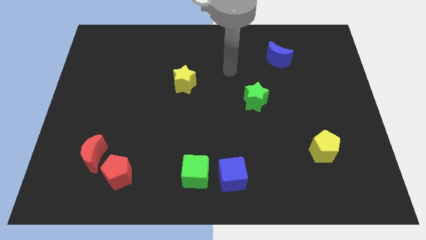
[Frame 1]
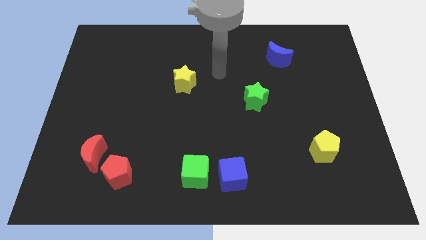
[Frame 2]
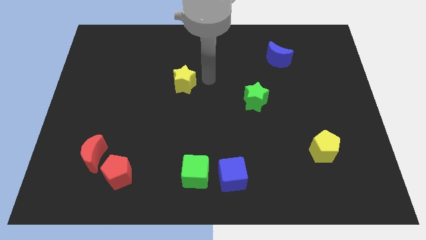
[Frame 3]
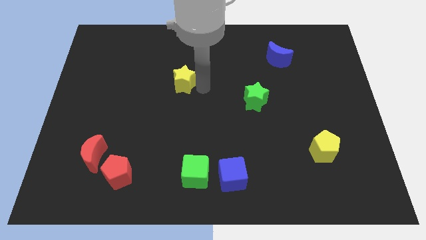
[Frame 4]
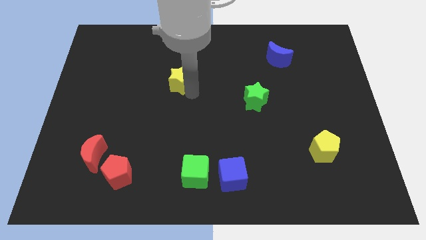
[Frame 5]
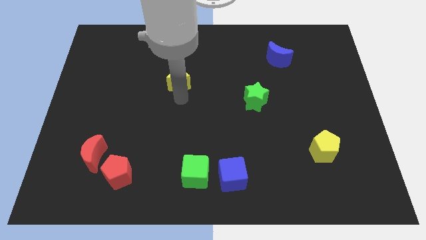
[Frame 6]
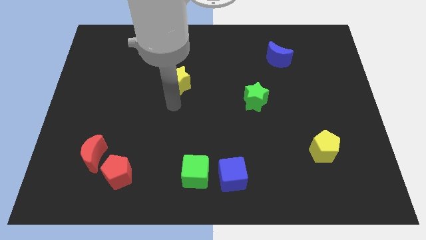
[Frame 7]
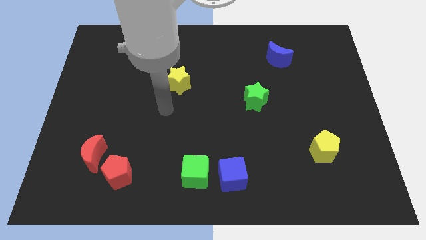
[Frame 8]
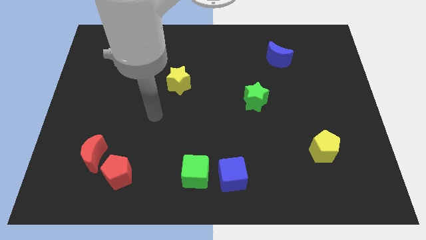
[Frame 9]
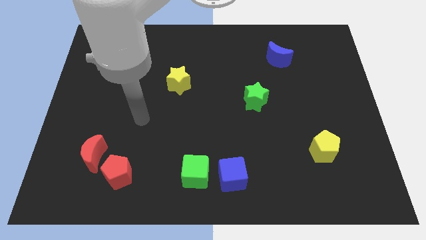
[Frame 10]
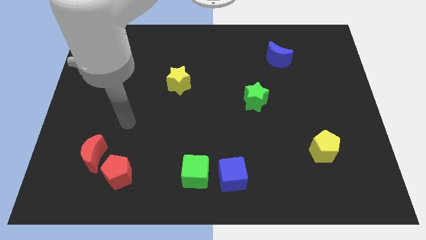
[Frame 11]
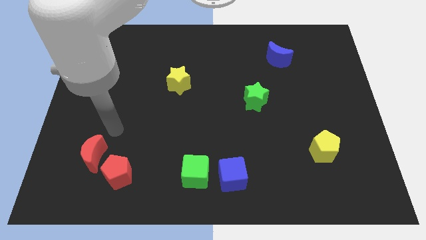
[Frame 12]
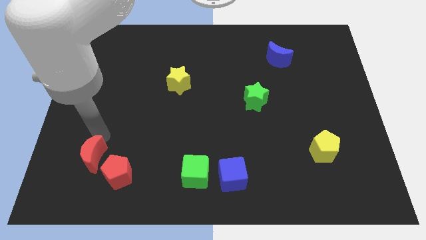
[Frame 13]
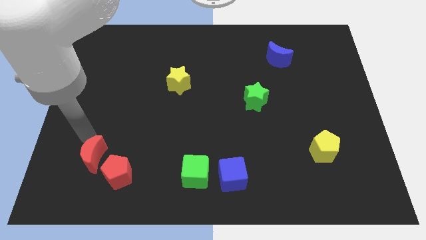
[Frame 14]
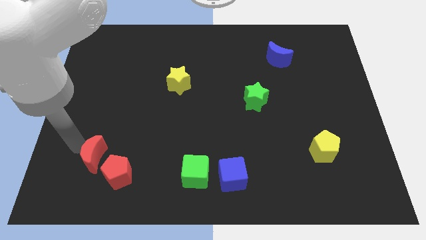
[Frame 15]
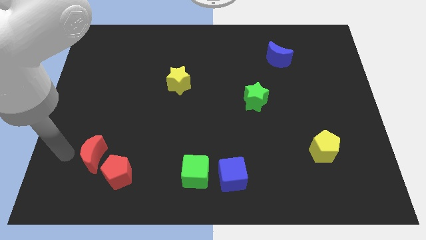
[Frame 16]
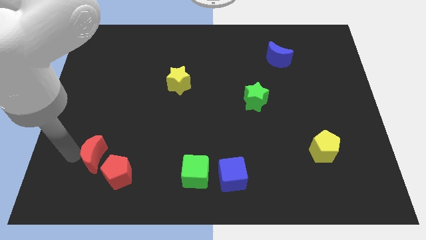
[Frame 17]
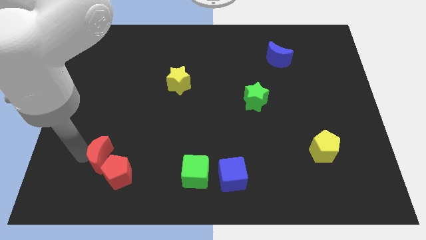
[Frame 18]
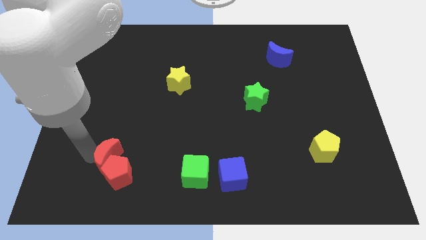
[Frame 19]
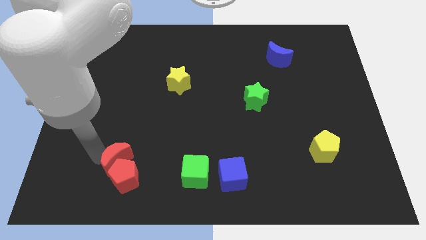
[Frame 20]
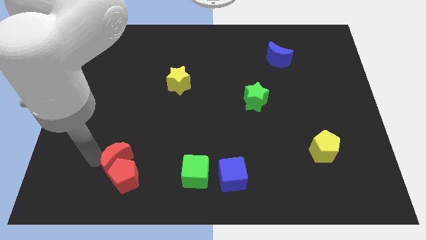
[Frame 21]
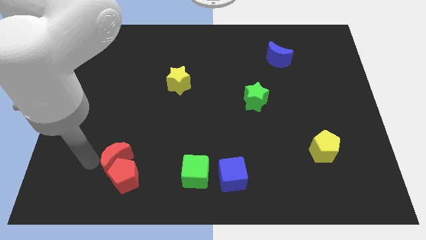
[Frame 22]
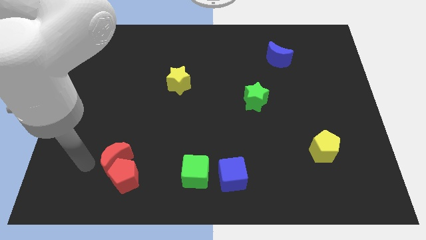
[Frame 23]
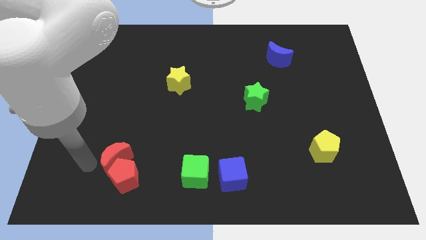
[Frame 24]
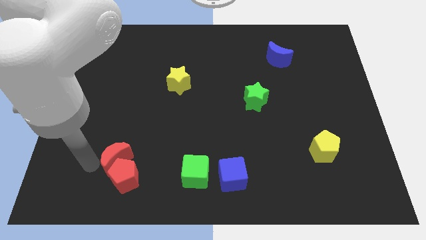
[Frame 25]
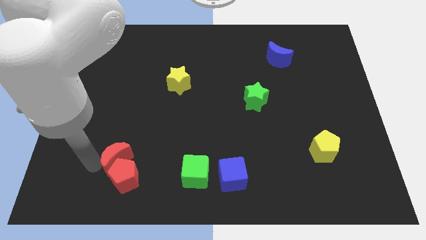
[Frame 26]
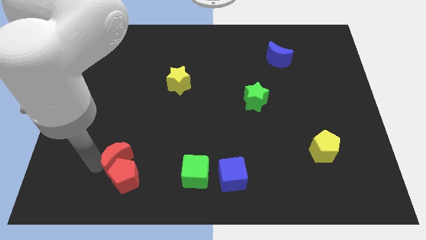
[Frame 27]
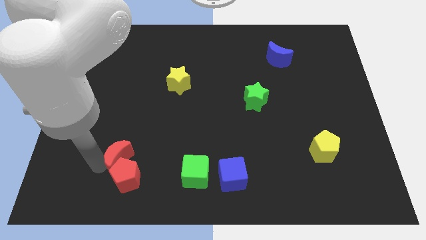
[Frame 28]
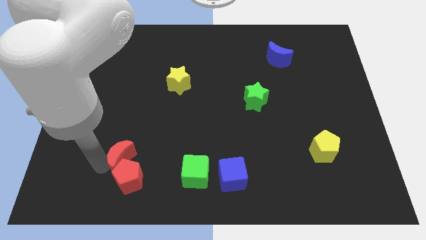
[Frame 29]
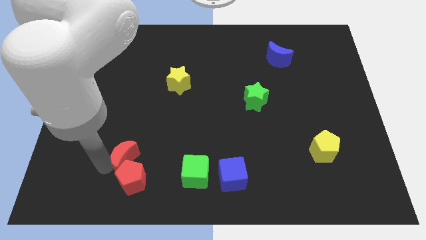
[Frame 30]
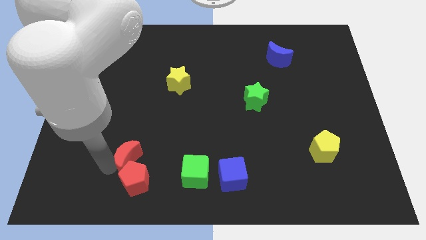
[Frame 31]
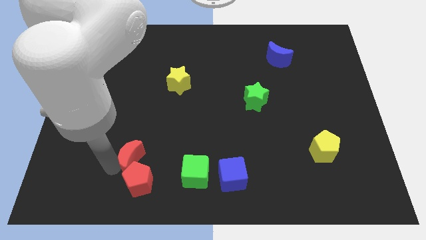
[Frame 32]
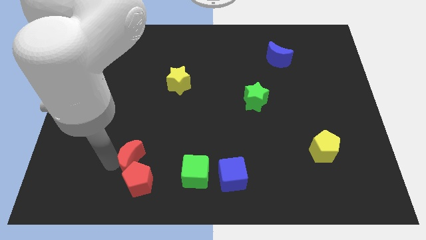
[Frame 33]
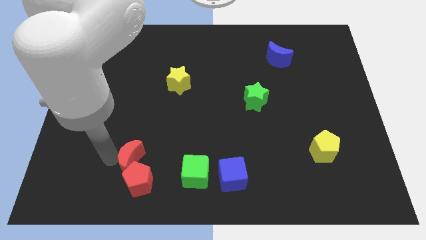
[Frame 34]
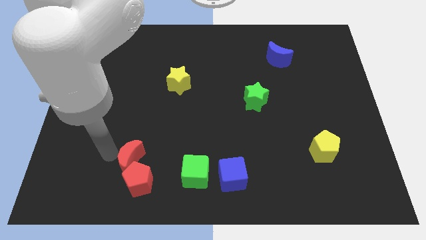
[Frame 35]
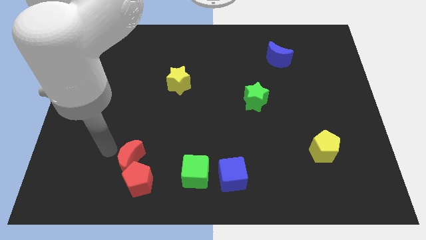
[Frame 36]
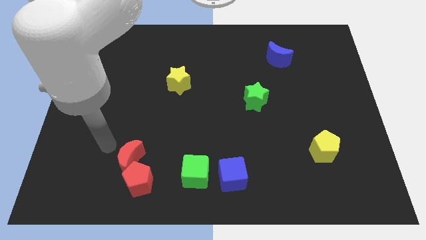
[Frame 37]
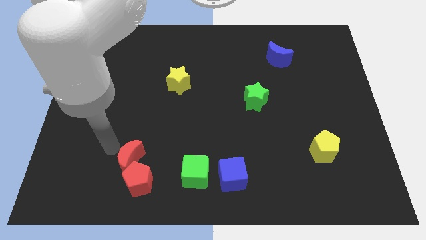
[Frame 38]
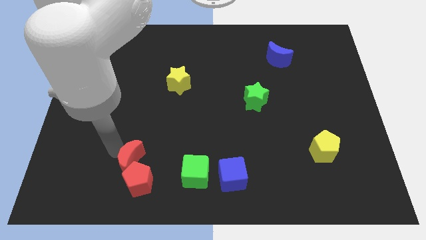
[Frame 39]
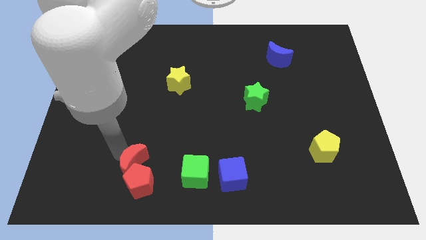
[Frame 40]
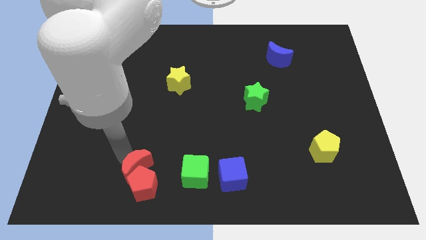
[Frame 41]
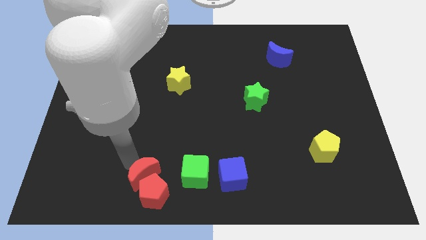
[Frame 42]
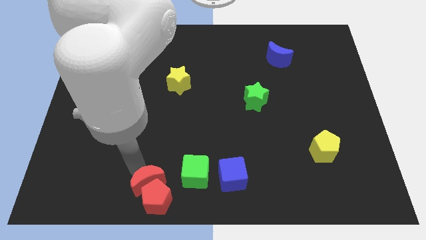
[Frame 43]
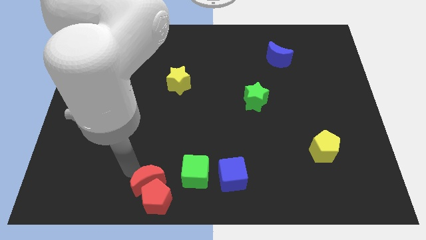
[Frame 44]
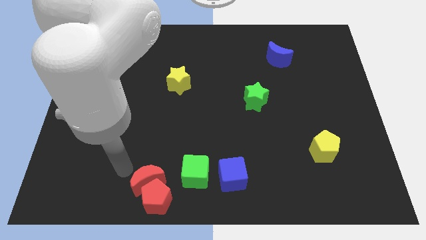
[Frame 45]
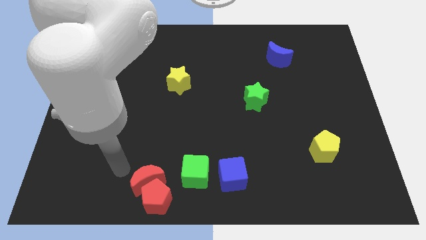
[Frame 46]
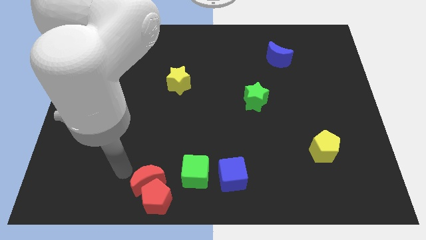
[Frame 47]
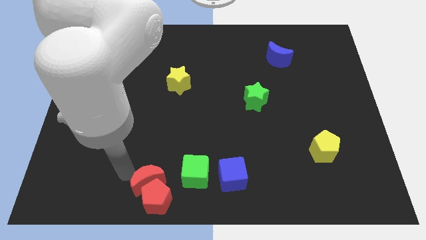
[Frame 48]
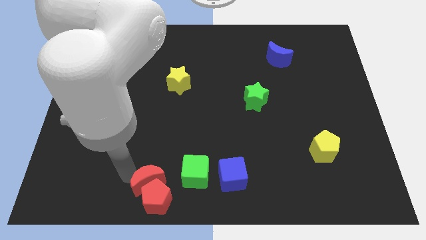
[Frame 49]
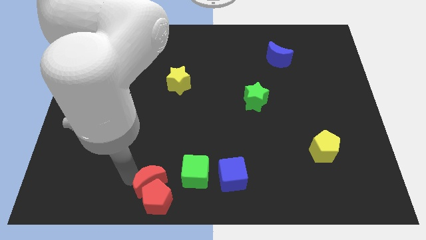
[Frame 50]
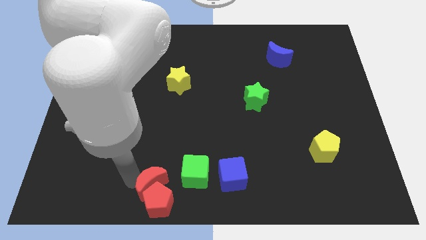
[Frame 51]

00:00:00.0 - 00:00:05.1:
move the red moon to the bottom side

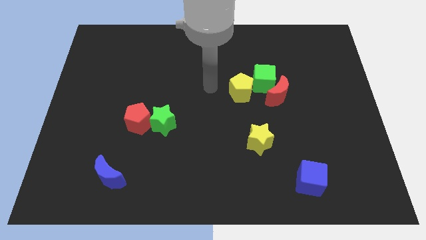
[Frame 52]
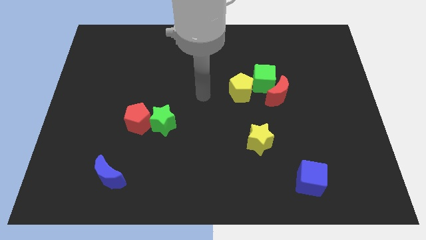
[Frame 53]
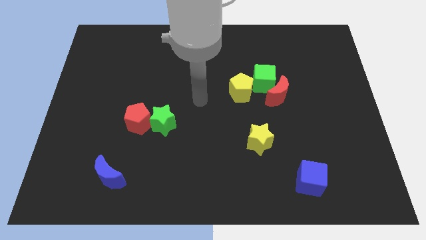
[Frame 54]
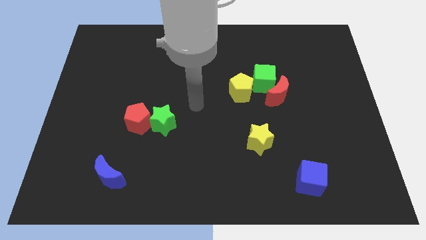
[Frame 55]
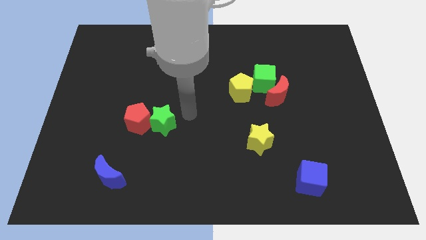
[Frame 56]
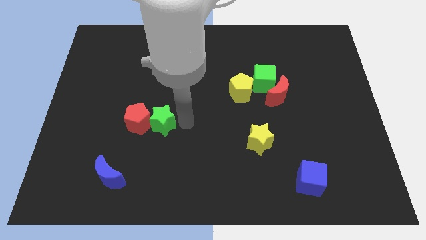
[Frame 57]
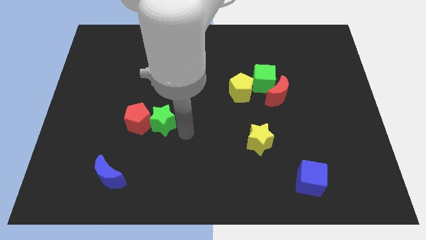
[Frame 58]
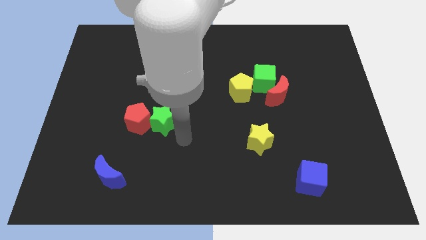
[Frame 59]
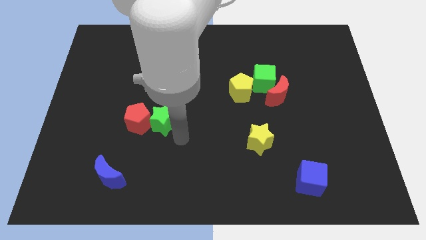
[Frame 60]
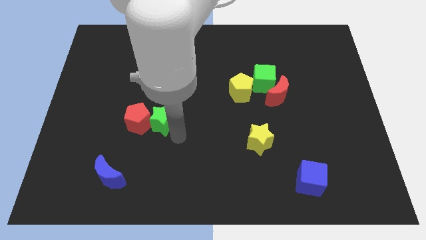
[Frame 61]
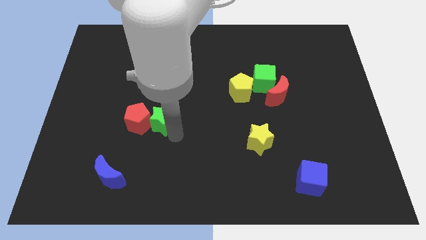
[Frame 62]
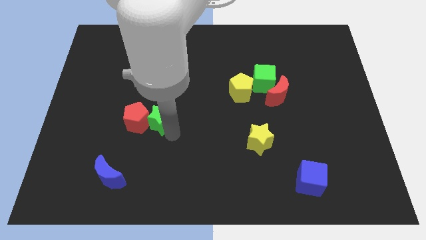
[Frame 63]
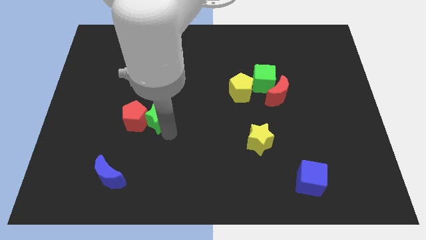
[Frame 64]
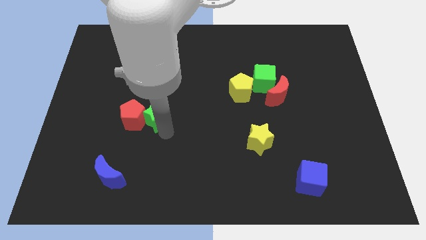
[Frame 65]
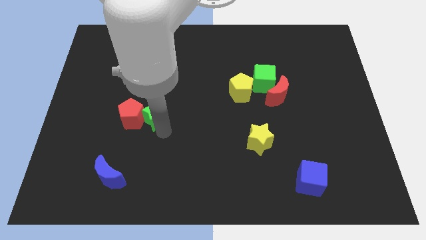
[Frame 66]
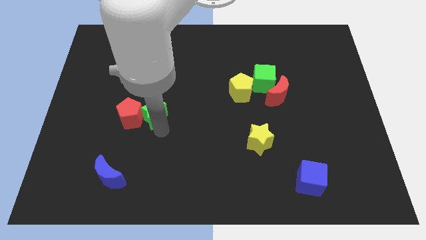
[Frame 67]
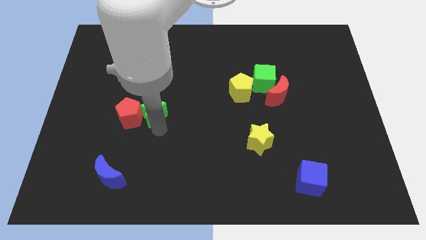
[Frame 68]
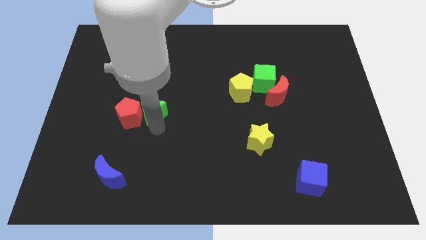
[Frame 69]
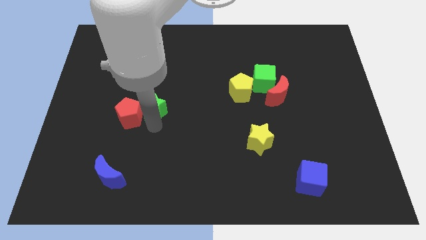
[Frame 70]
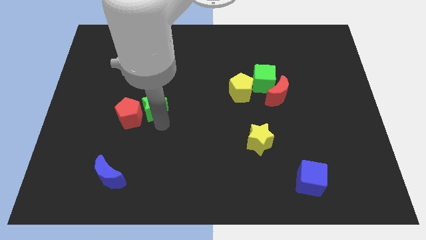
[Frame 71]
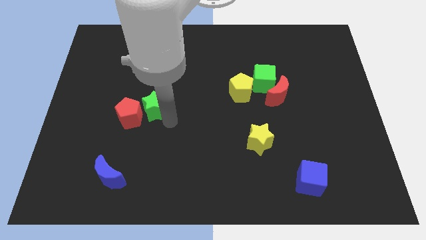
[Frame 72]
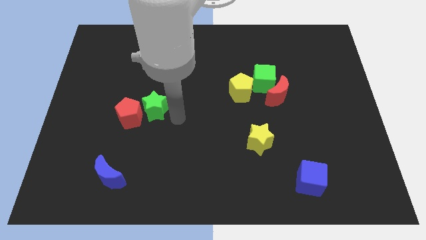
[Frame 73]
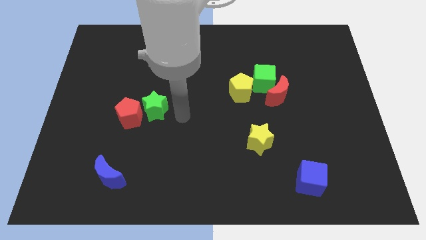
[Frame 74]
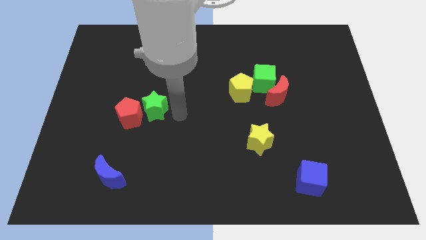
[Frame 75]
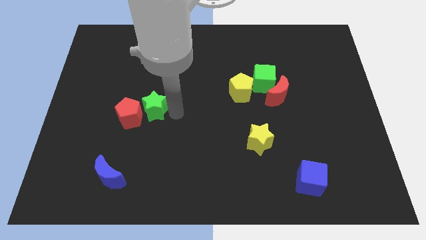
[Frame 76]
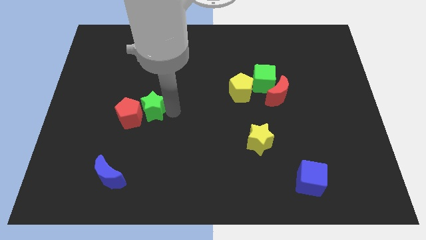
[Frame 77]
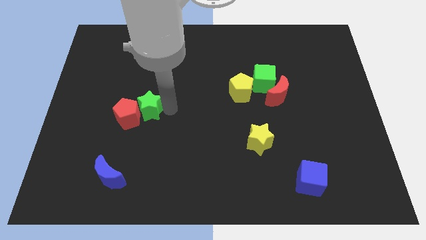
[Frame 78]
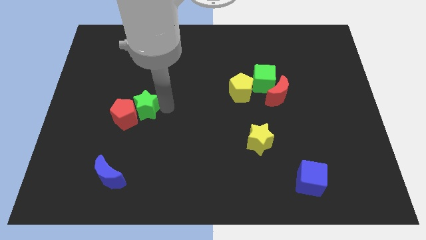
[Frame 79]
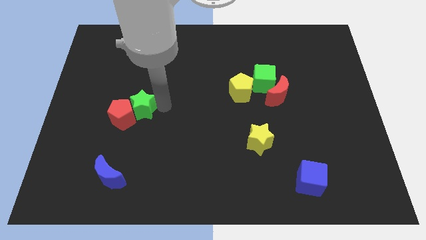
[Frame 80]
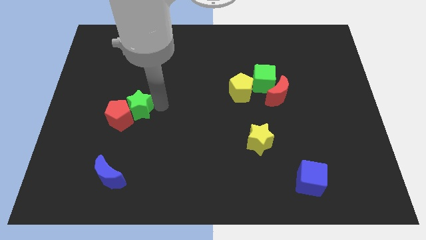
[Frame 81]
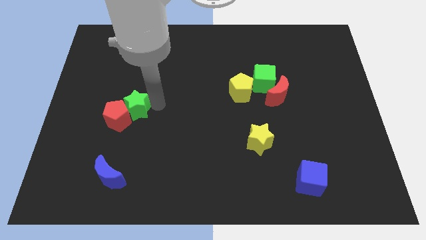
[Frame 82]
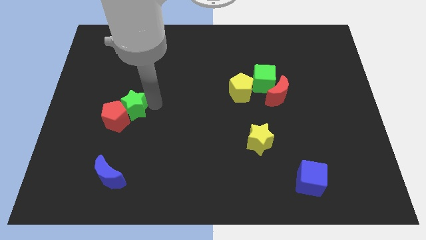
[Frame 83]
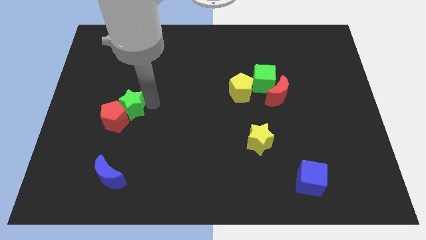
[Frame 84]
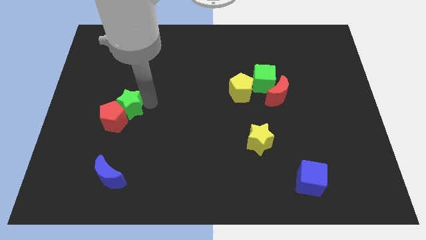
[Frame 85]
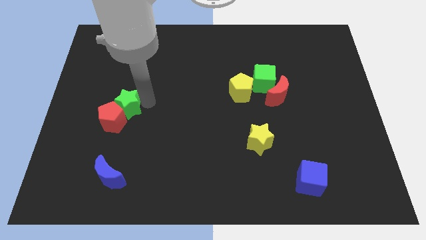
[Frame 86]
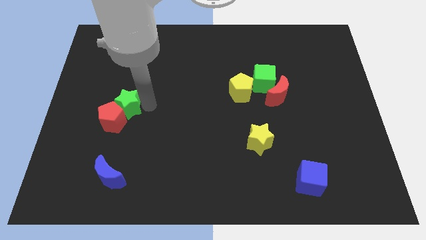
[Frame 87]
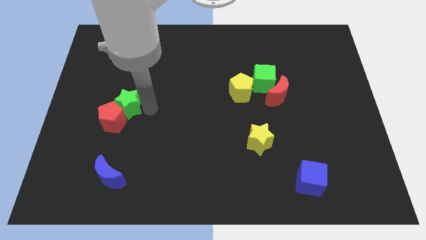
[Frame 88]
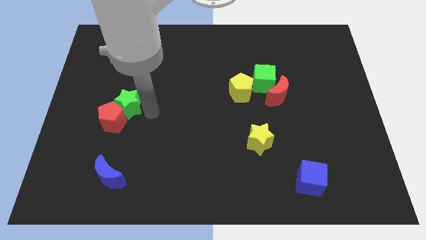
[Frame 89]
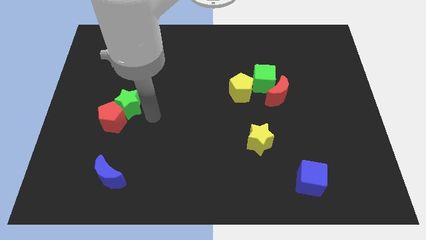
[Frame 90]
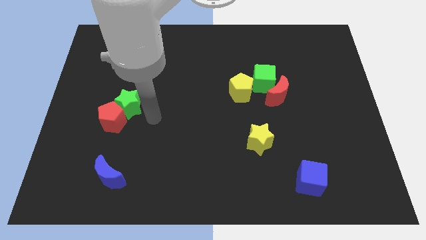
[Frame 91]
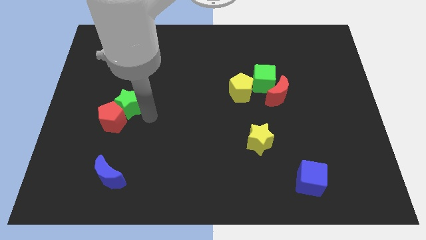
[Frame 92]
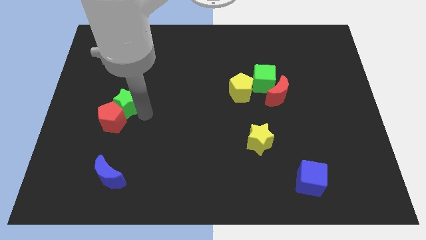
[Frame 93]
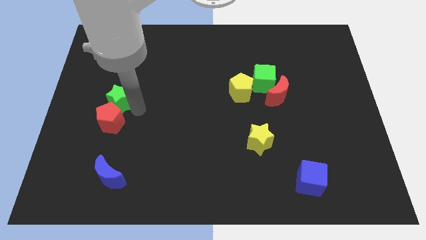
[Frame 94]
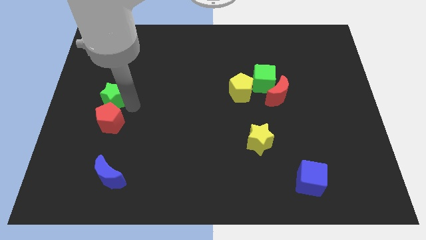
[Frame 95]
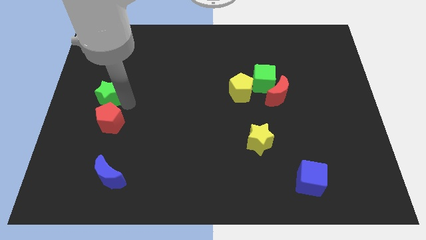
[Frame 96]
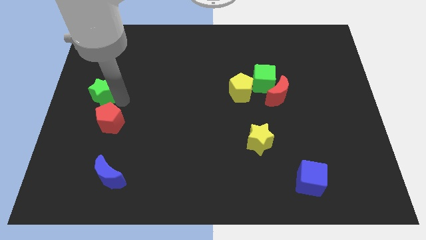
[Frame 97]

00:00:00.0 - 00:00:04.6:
push the green star to the center left
